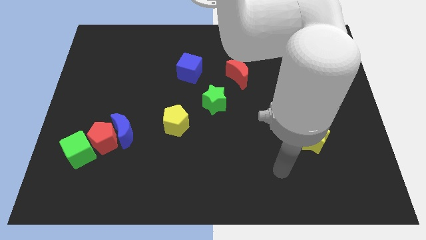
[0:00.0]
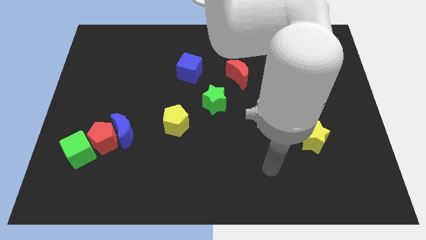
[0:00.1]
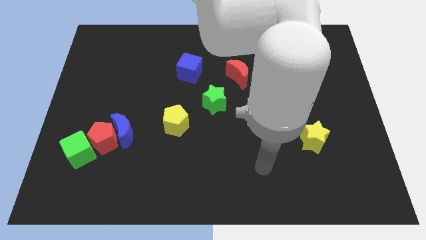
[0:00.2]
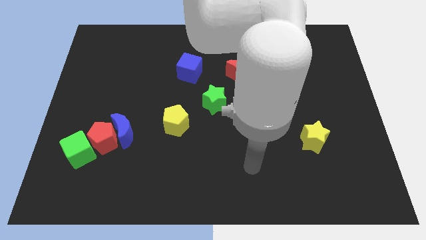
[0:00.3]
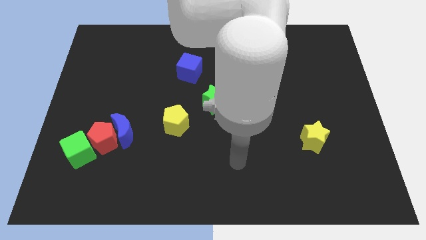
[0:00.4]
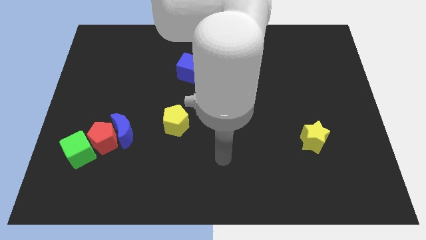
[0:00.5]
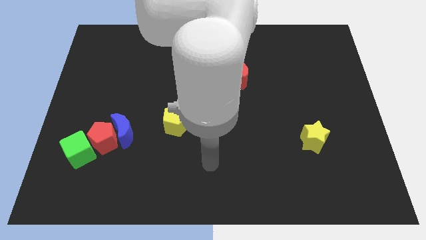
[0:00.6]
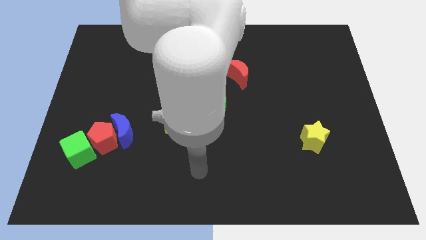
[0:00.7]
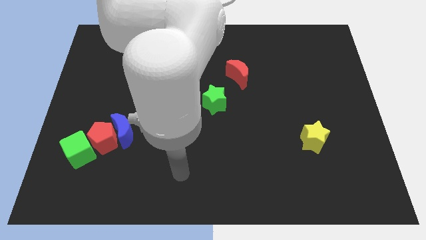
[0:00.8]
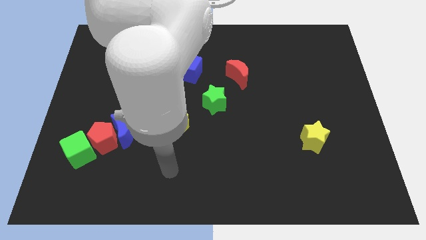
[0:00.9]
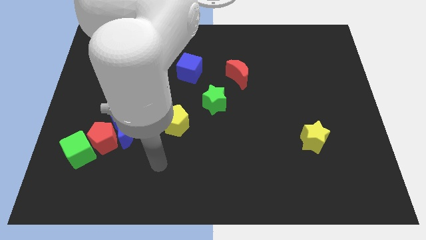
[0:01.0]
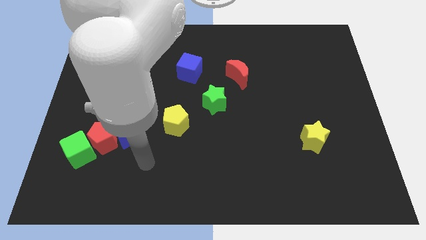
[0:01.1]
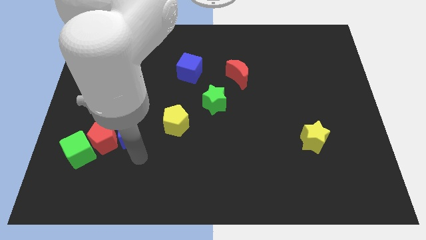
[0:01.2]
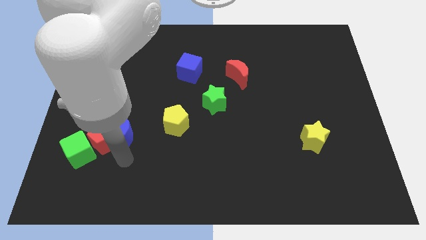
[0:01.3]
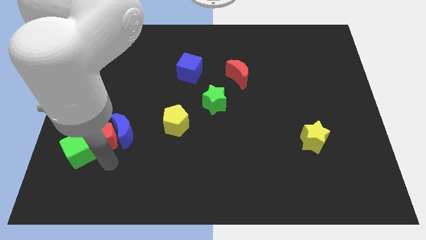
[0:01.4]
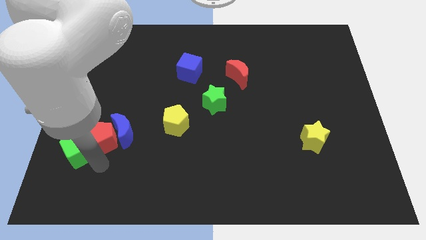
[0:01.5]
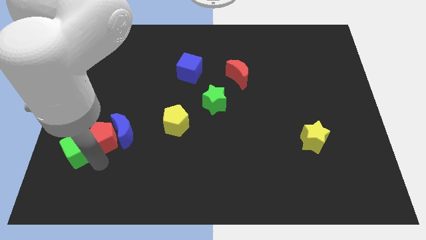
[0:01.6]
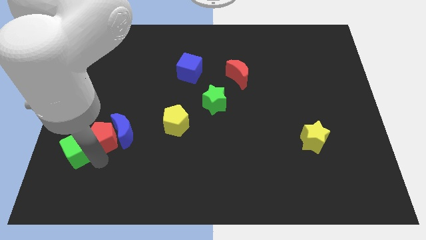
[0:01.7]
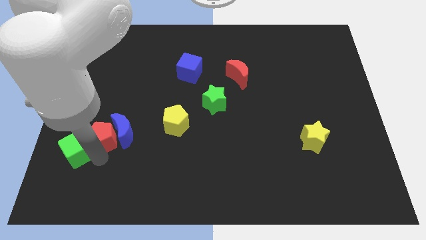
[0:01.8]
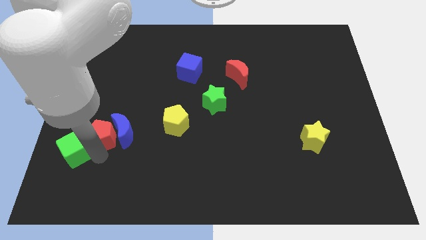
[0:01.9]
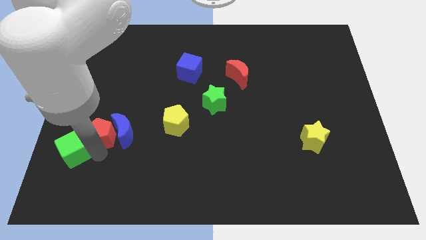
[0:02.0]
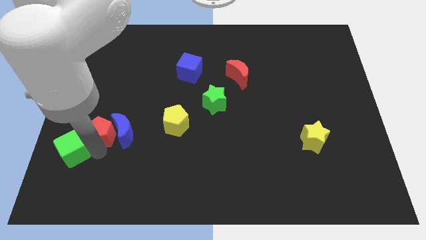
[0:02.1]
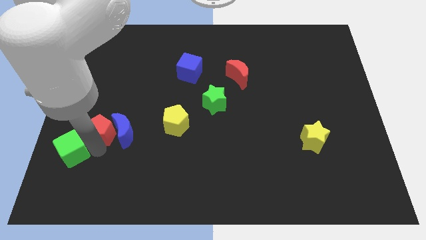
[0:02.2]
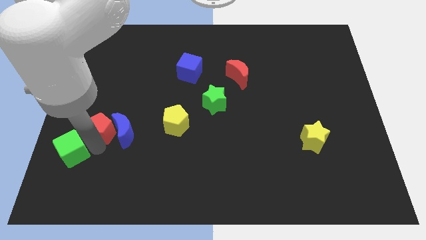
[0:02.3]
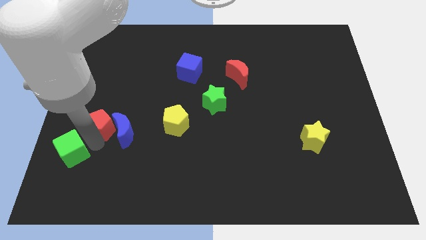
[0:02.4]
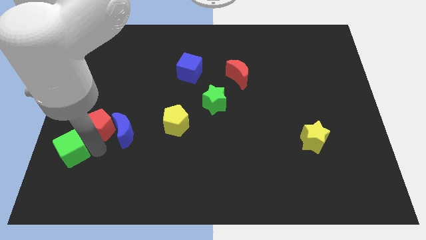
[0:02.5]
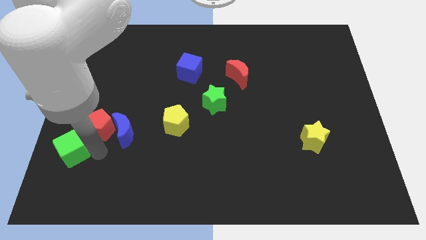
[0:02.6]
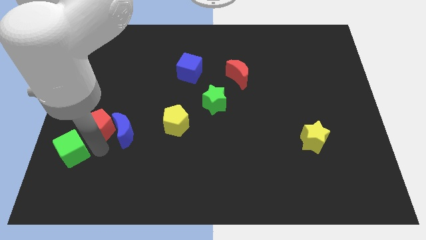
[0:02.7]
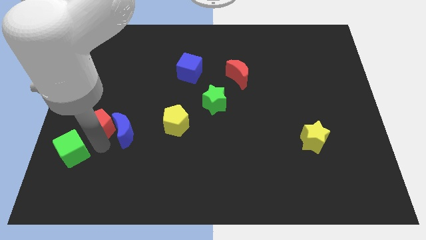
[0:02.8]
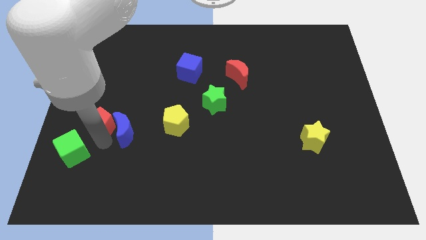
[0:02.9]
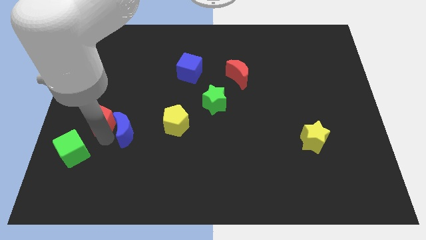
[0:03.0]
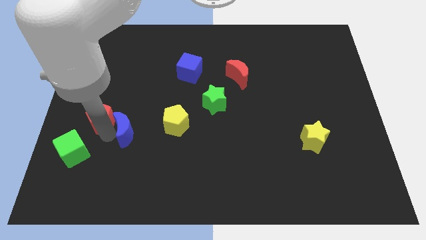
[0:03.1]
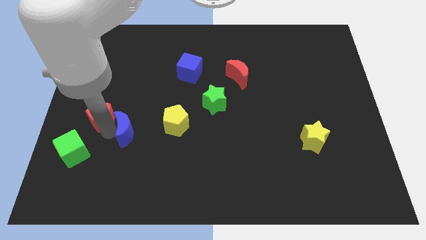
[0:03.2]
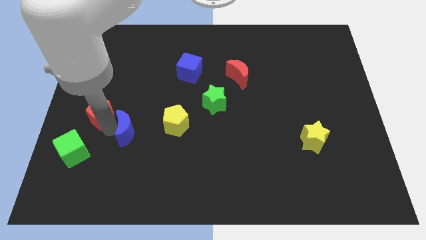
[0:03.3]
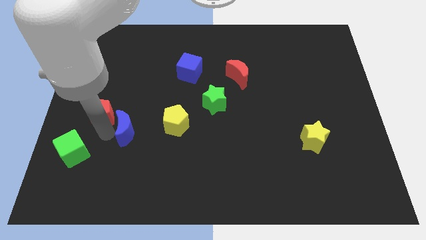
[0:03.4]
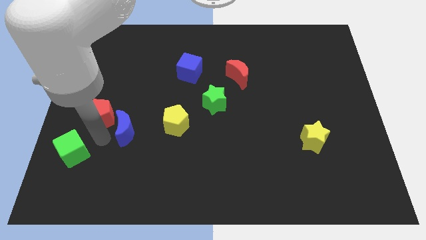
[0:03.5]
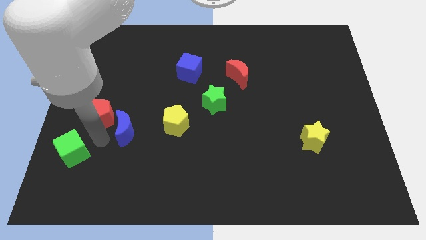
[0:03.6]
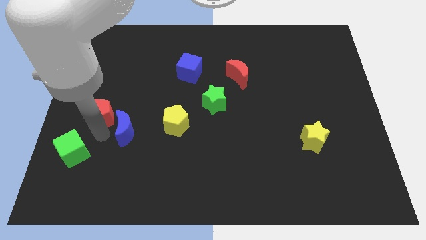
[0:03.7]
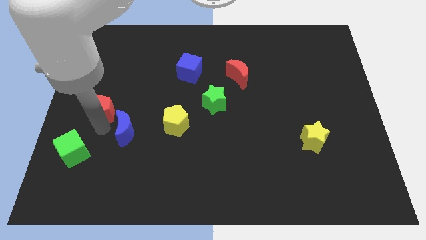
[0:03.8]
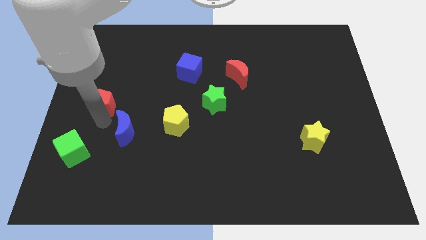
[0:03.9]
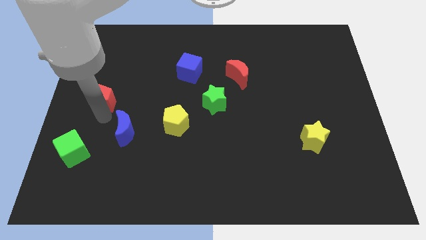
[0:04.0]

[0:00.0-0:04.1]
move the red pentagon away from the blue moon and green cube

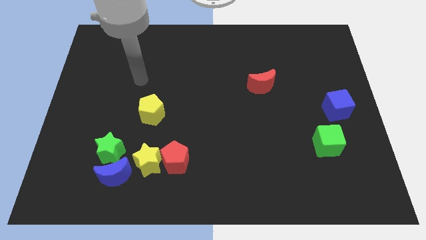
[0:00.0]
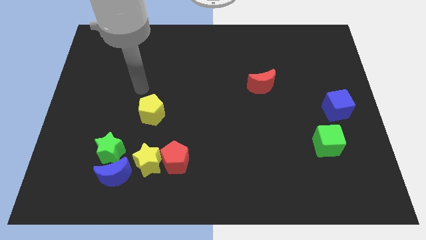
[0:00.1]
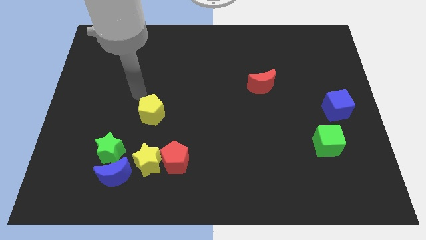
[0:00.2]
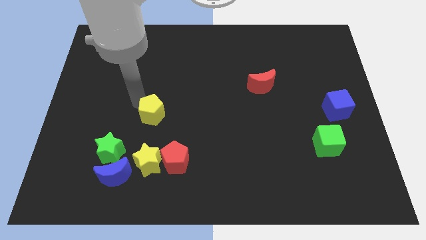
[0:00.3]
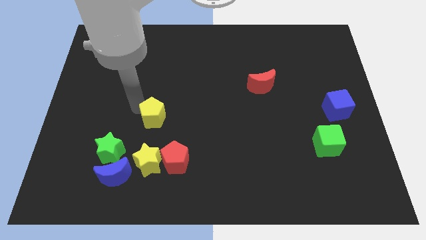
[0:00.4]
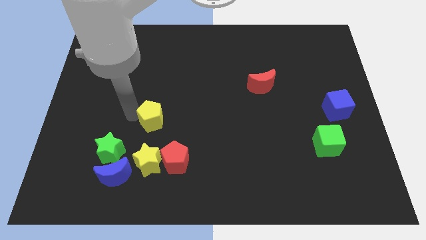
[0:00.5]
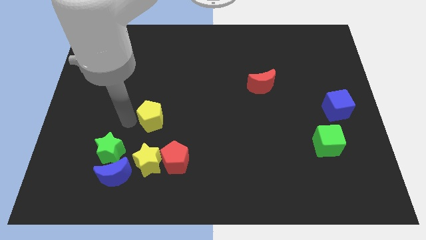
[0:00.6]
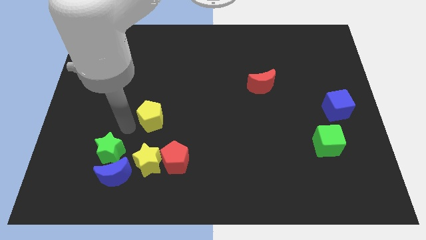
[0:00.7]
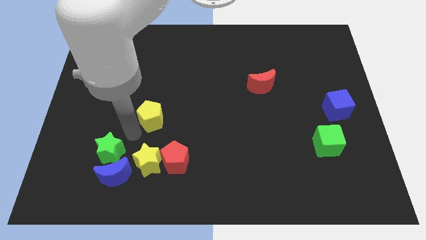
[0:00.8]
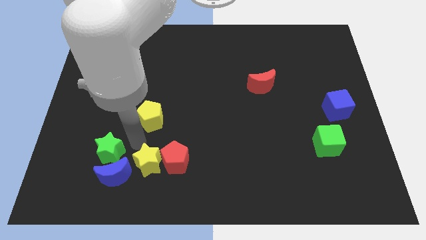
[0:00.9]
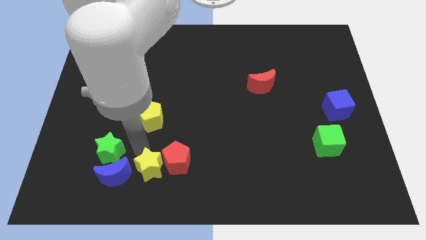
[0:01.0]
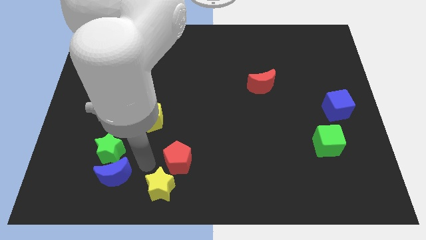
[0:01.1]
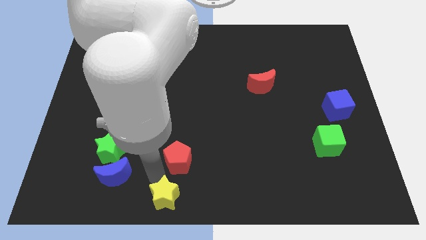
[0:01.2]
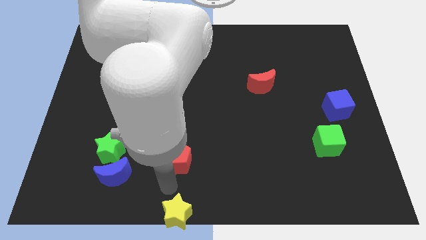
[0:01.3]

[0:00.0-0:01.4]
separate the red pentagon from the yellow star

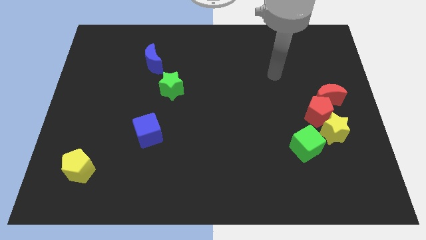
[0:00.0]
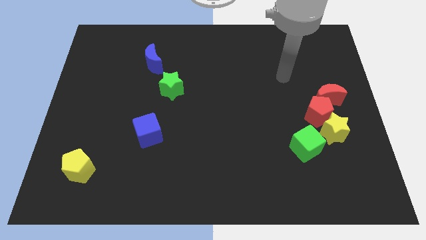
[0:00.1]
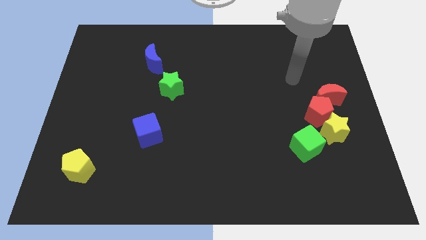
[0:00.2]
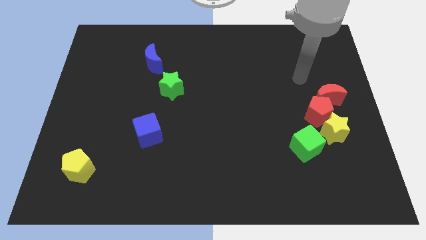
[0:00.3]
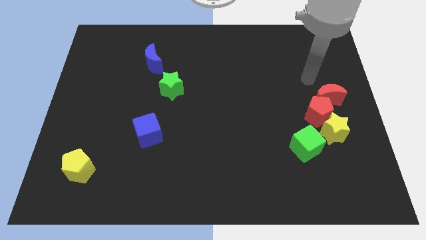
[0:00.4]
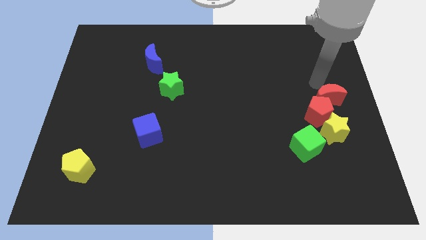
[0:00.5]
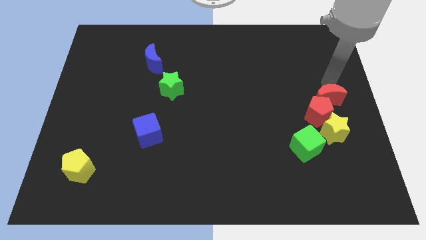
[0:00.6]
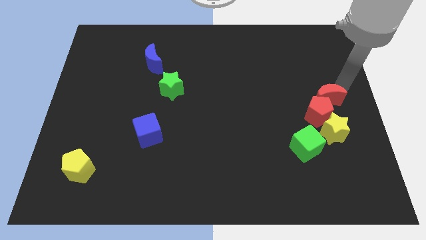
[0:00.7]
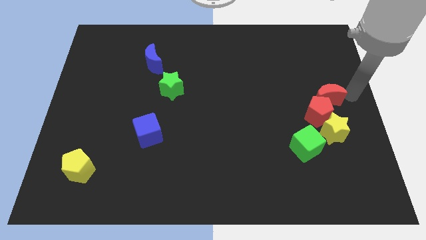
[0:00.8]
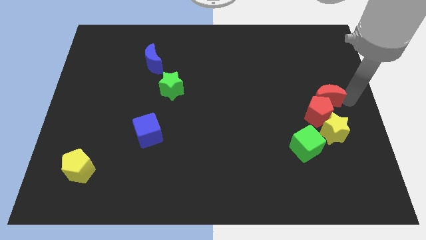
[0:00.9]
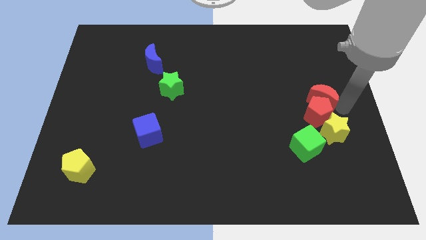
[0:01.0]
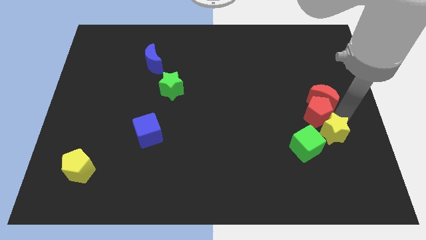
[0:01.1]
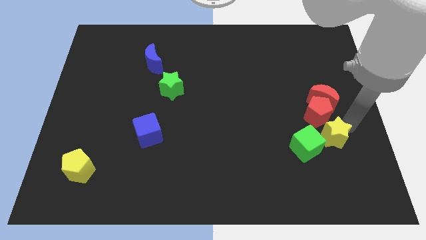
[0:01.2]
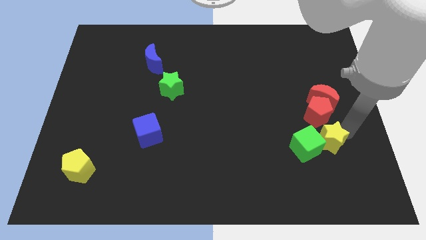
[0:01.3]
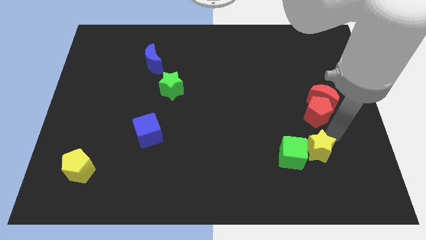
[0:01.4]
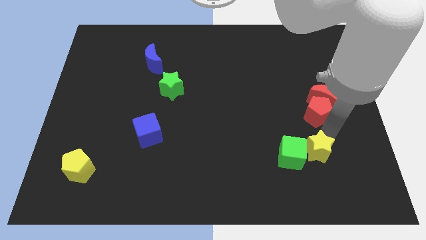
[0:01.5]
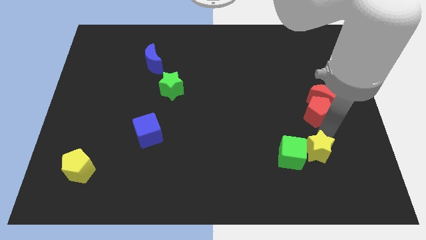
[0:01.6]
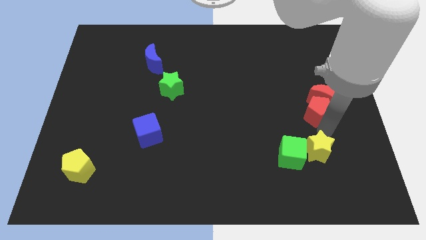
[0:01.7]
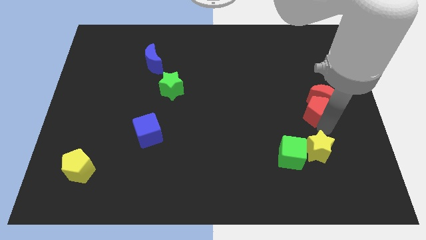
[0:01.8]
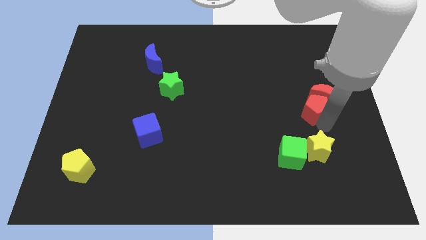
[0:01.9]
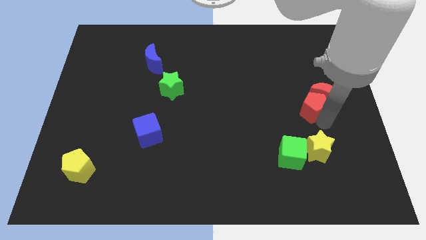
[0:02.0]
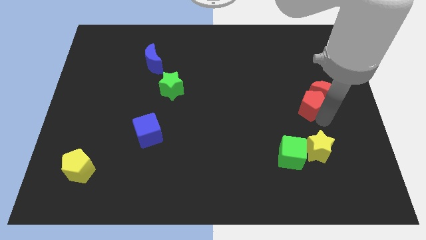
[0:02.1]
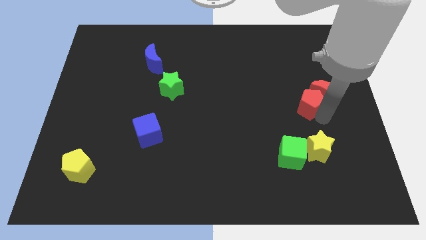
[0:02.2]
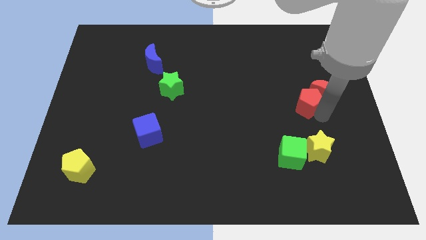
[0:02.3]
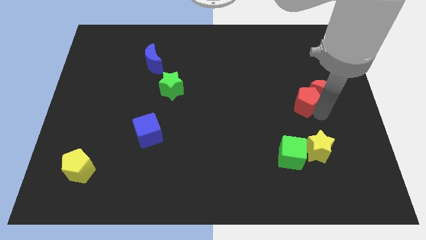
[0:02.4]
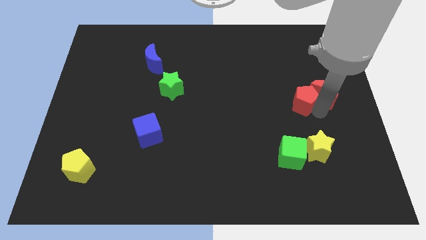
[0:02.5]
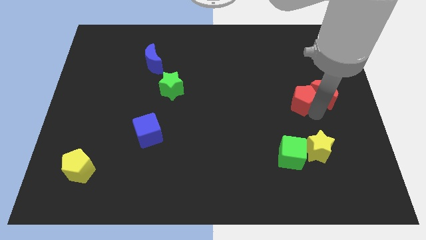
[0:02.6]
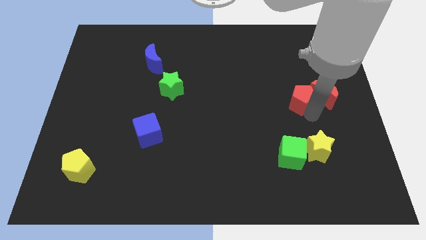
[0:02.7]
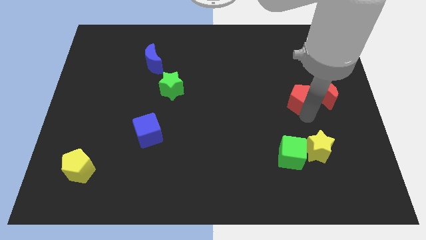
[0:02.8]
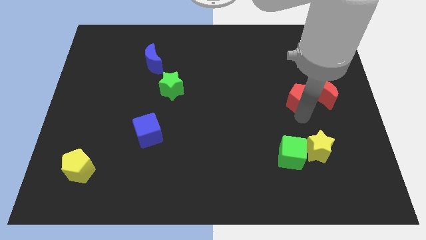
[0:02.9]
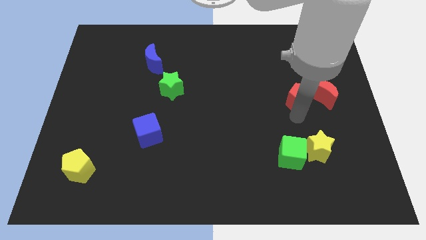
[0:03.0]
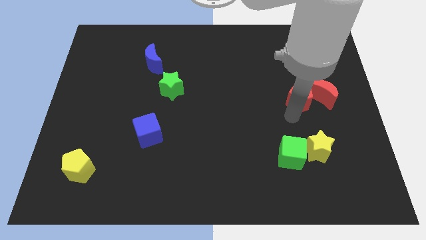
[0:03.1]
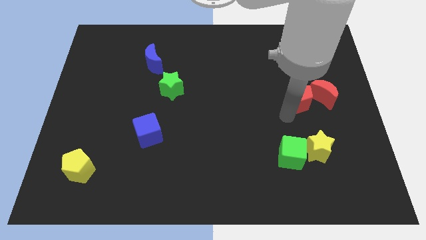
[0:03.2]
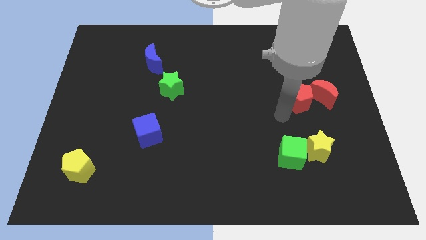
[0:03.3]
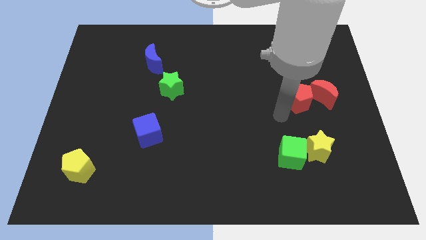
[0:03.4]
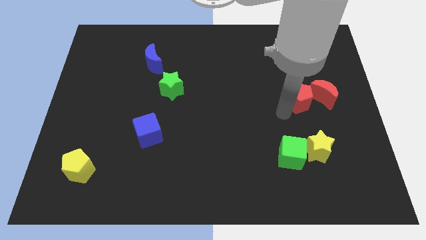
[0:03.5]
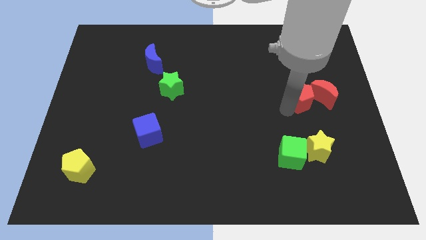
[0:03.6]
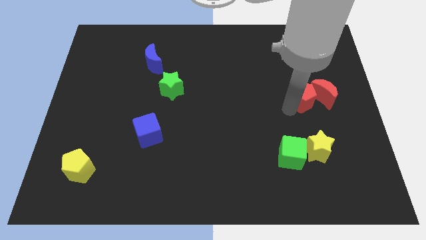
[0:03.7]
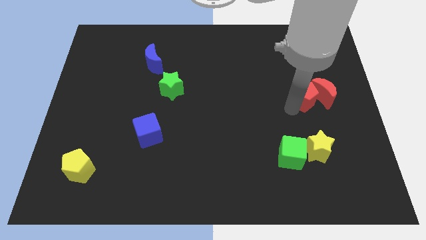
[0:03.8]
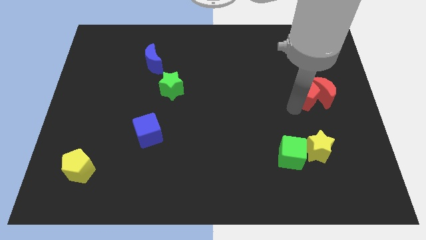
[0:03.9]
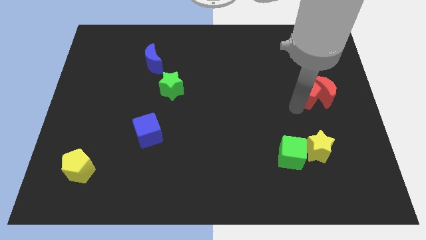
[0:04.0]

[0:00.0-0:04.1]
move the red pentagon away from the group
